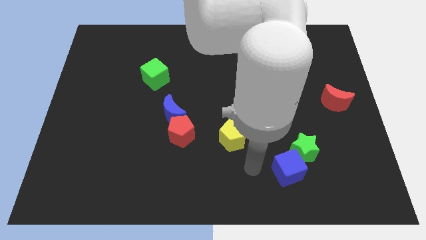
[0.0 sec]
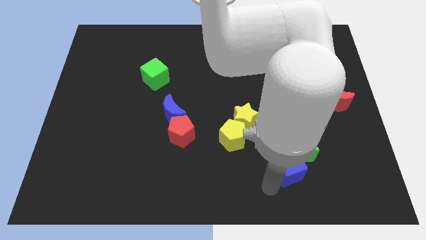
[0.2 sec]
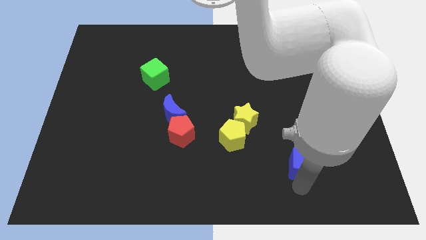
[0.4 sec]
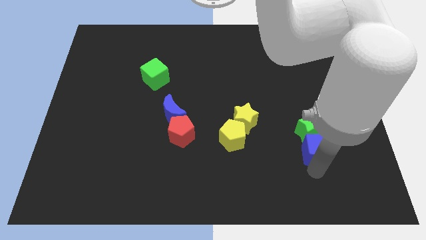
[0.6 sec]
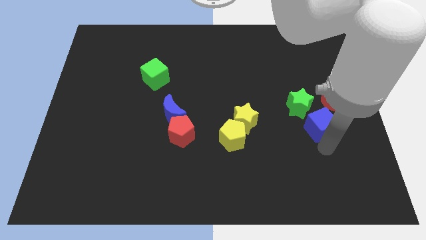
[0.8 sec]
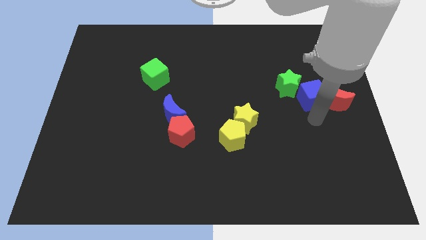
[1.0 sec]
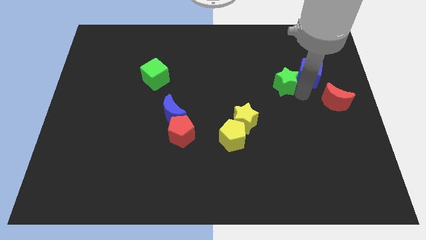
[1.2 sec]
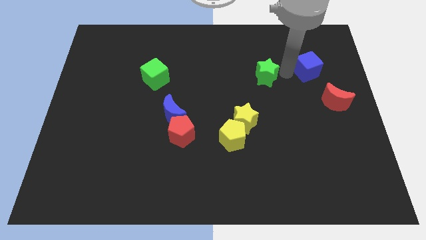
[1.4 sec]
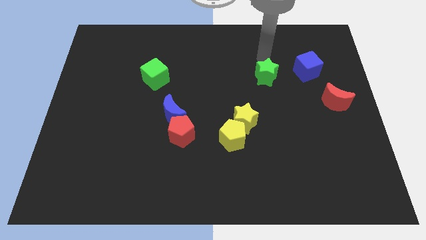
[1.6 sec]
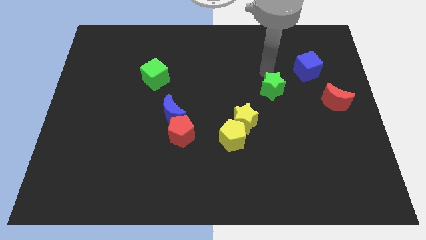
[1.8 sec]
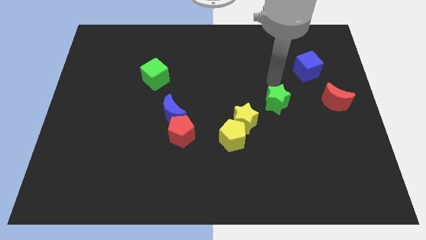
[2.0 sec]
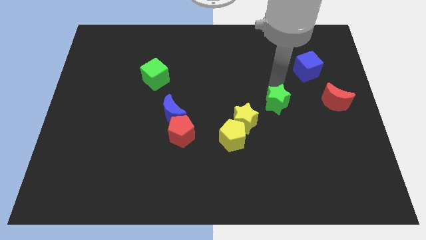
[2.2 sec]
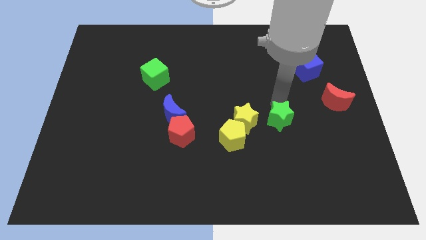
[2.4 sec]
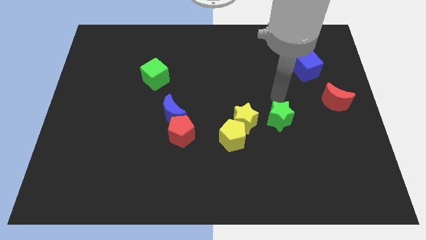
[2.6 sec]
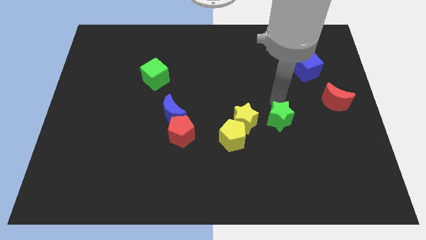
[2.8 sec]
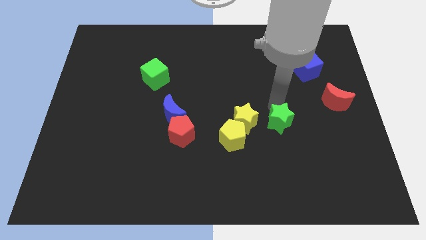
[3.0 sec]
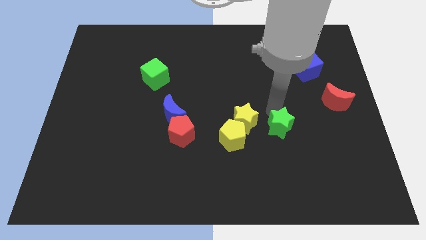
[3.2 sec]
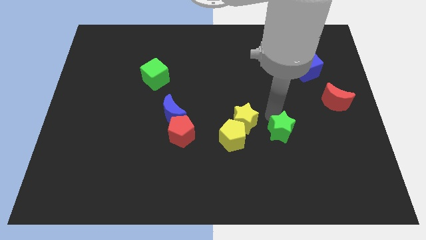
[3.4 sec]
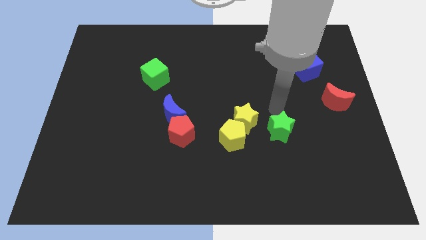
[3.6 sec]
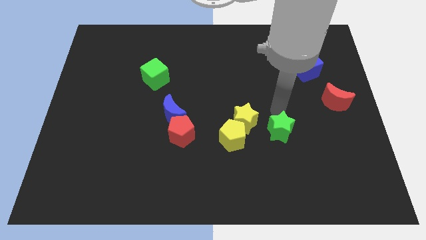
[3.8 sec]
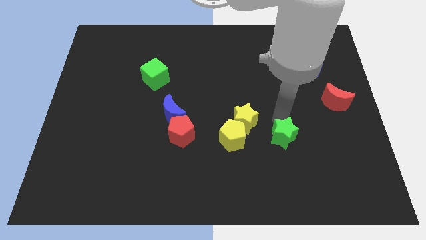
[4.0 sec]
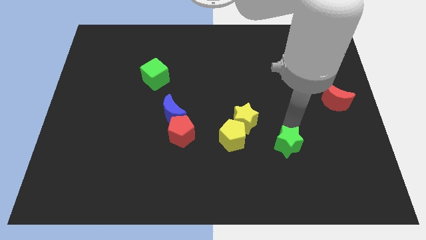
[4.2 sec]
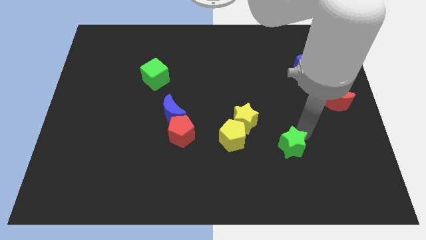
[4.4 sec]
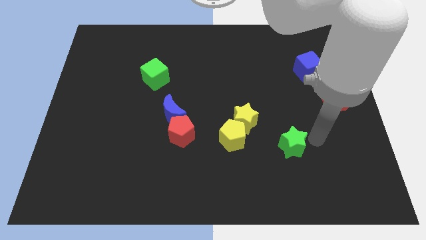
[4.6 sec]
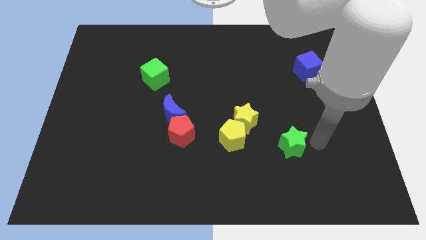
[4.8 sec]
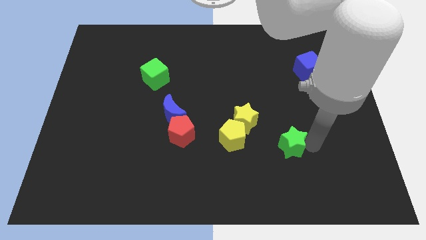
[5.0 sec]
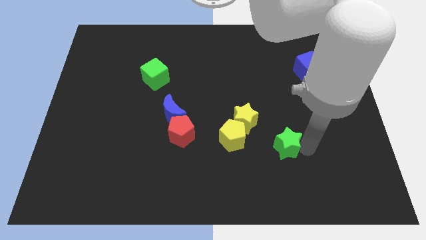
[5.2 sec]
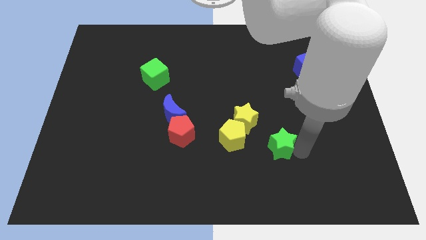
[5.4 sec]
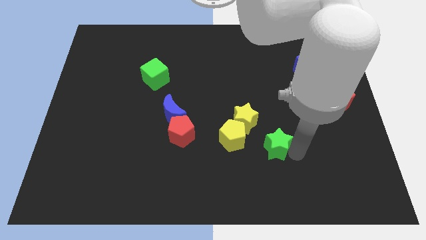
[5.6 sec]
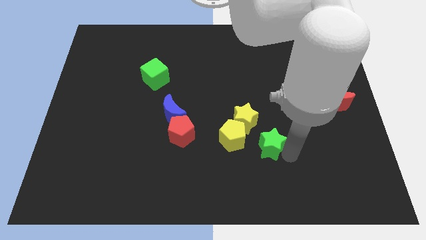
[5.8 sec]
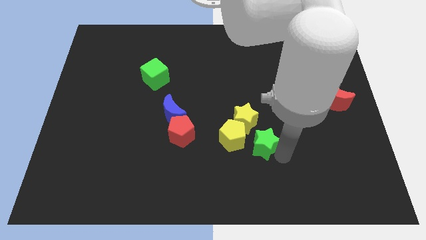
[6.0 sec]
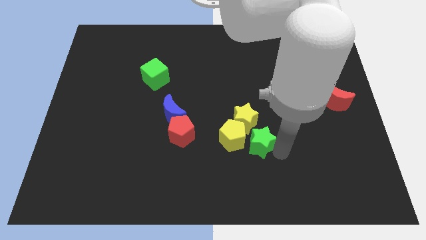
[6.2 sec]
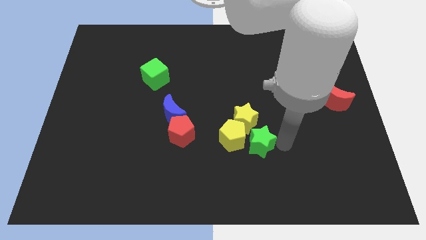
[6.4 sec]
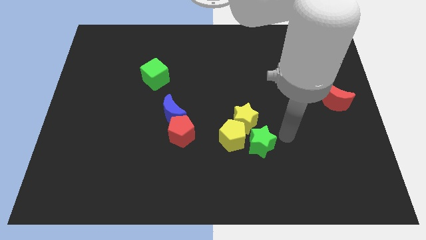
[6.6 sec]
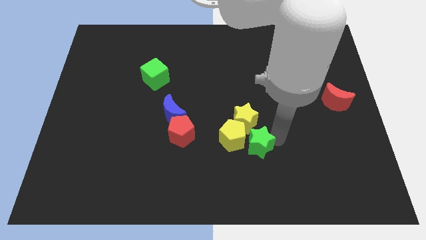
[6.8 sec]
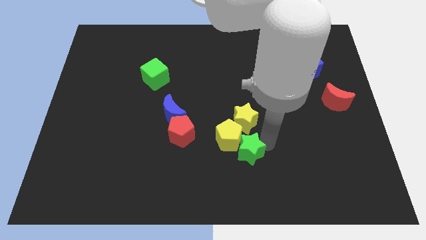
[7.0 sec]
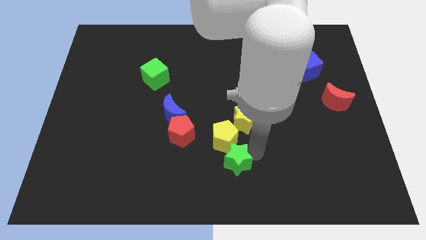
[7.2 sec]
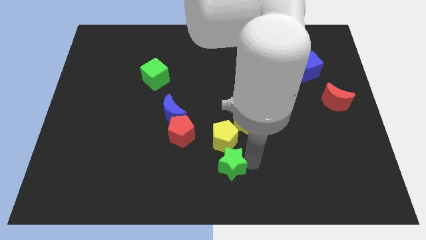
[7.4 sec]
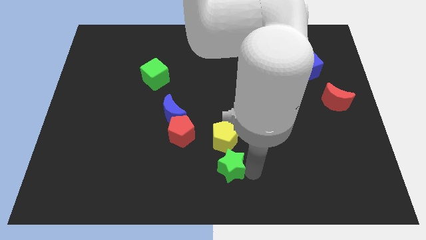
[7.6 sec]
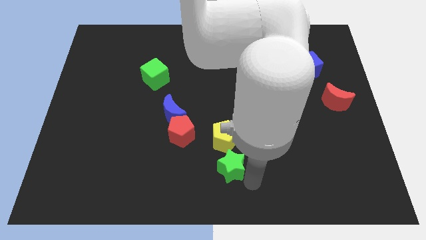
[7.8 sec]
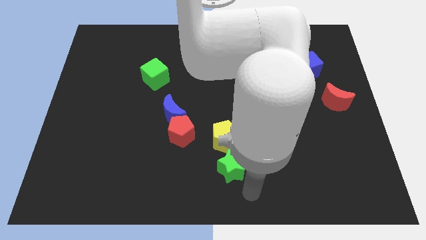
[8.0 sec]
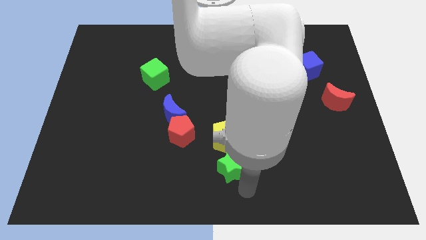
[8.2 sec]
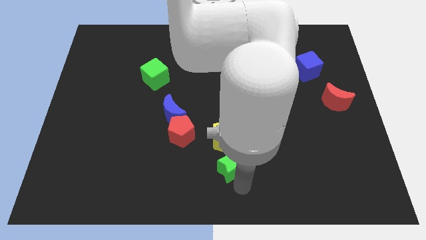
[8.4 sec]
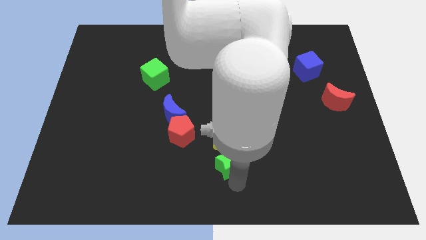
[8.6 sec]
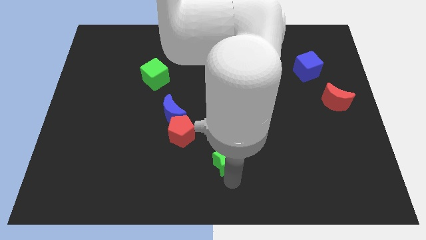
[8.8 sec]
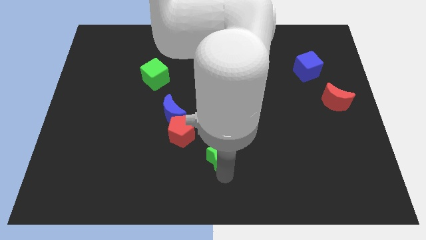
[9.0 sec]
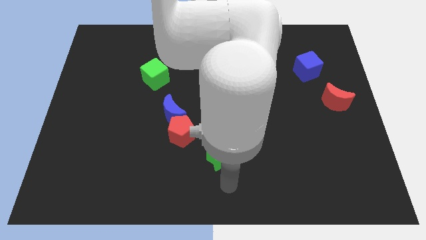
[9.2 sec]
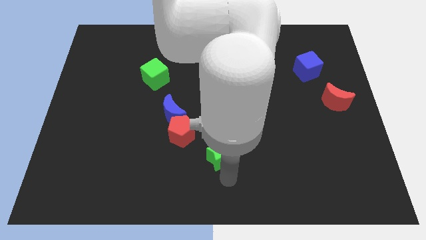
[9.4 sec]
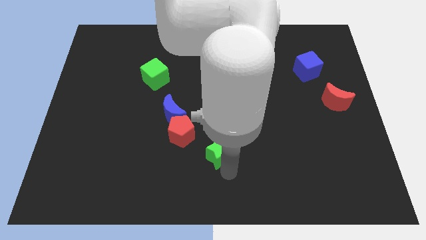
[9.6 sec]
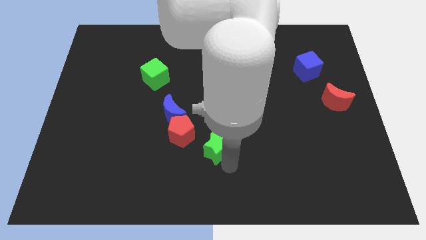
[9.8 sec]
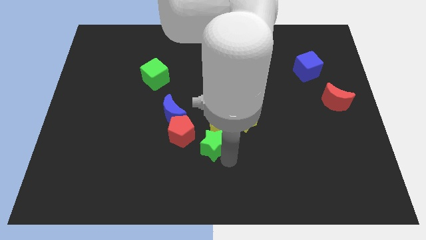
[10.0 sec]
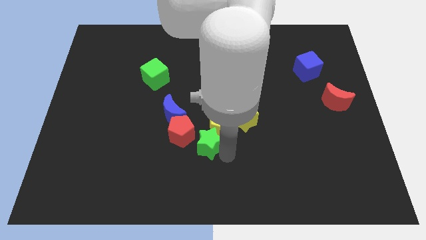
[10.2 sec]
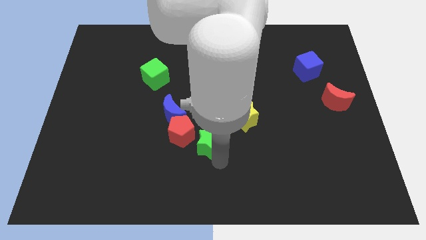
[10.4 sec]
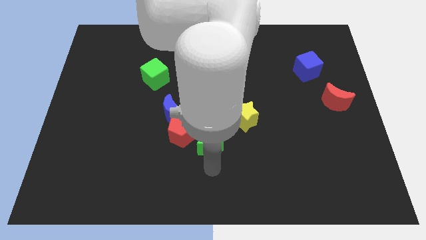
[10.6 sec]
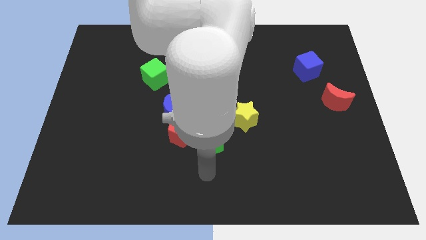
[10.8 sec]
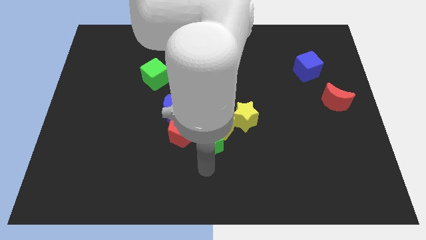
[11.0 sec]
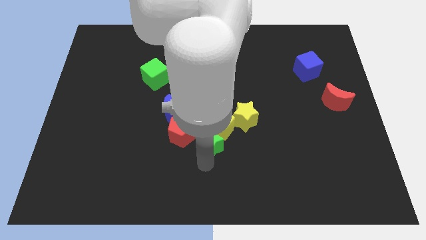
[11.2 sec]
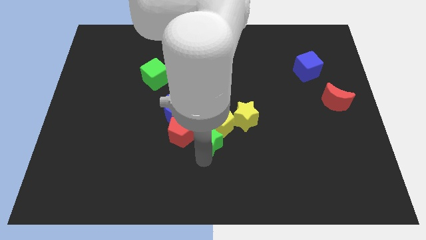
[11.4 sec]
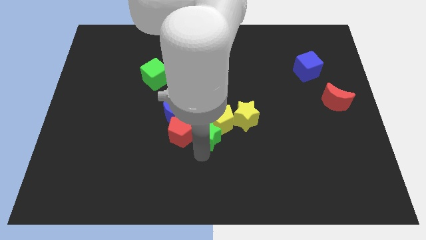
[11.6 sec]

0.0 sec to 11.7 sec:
push the green star to the top right of the red pentagon
